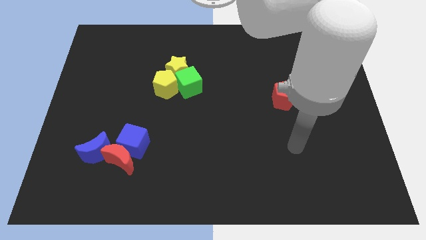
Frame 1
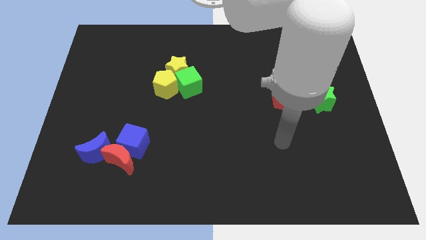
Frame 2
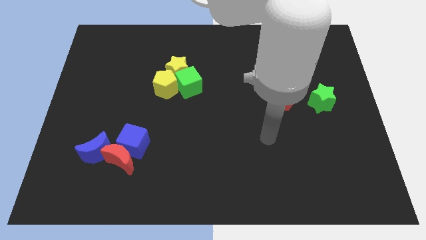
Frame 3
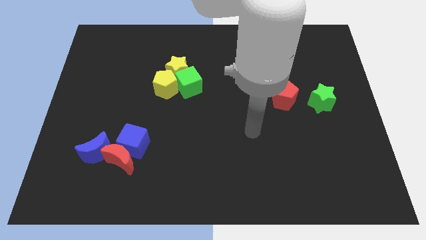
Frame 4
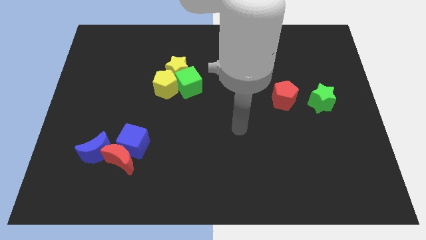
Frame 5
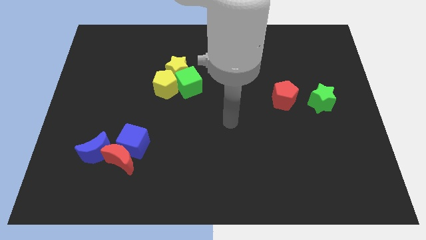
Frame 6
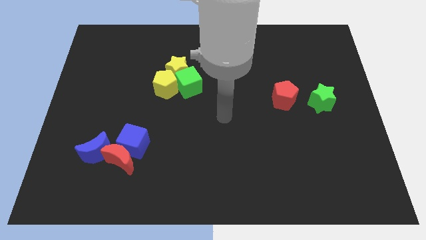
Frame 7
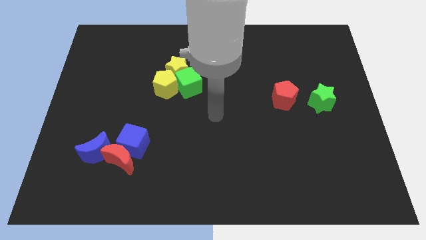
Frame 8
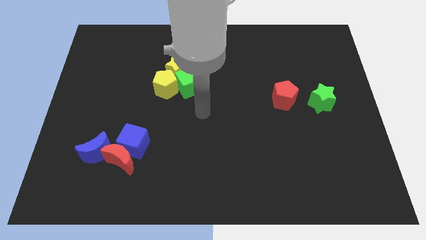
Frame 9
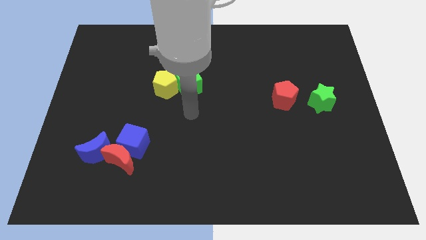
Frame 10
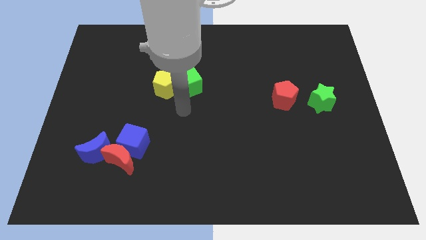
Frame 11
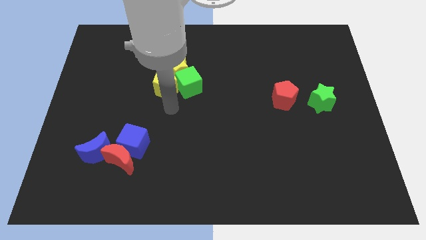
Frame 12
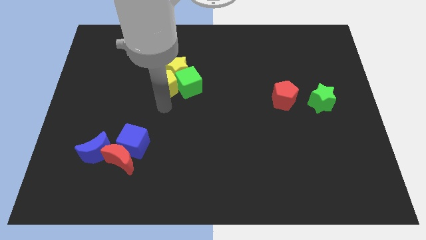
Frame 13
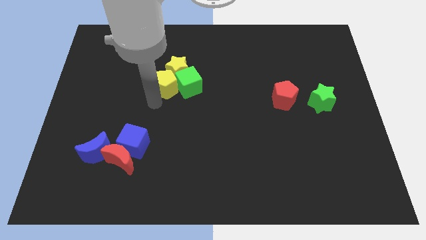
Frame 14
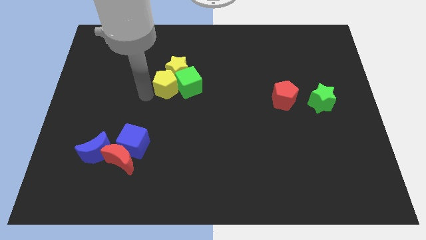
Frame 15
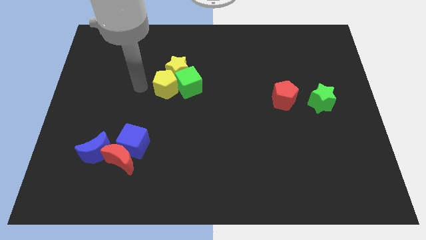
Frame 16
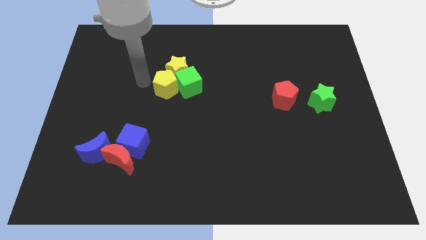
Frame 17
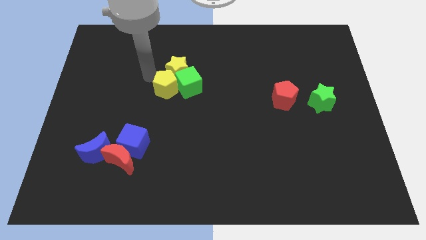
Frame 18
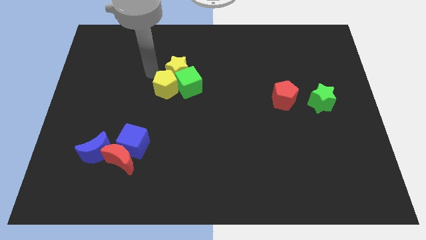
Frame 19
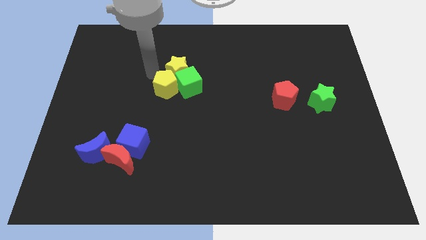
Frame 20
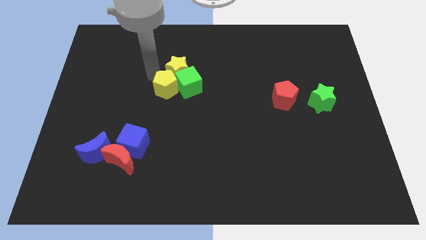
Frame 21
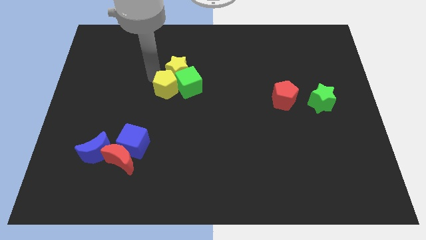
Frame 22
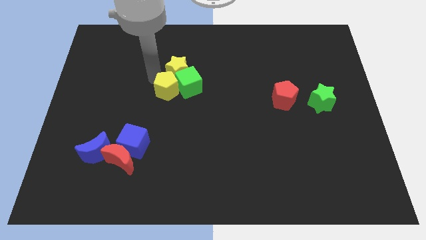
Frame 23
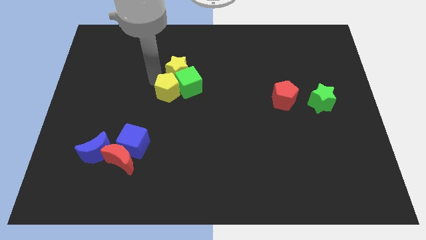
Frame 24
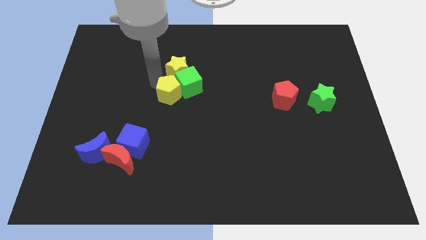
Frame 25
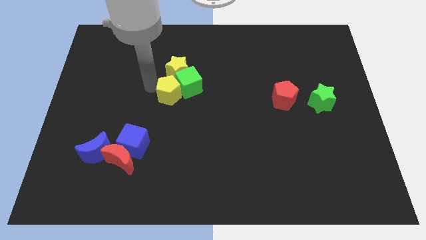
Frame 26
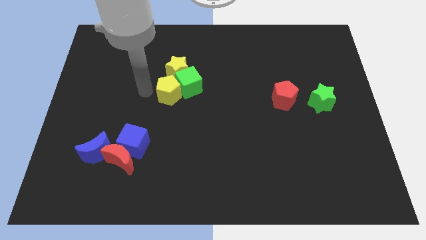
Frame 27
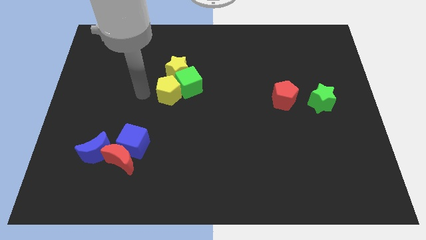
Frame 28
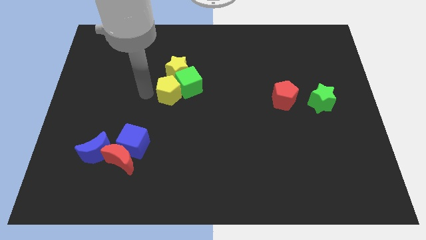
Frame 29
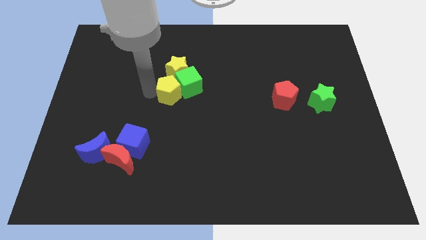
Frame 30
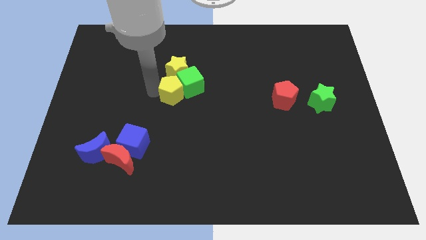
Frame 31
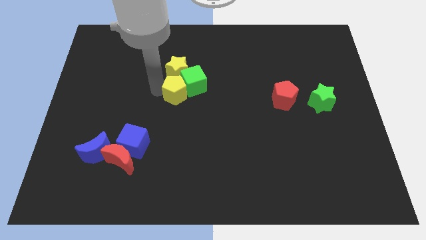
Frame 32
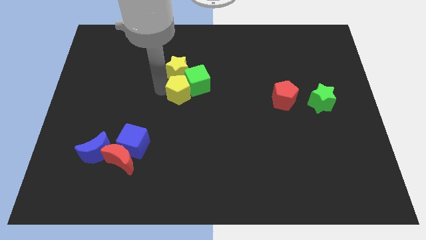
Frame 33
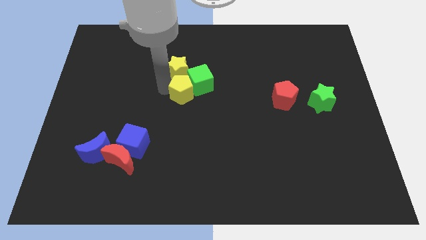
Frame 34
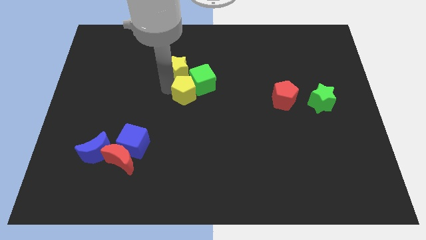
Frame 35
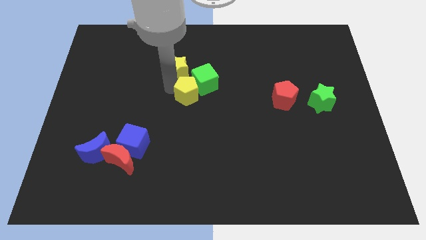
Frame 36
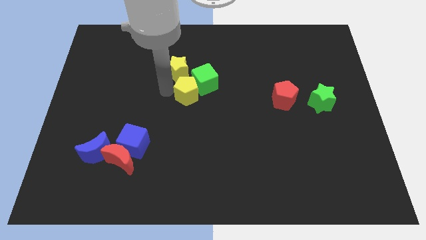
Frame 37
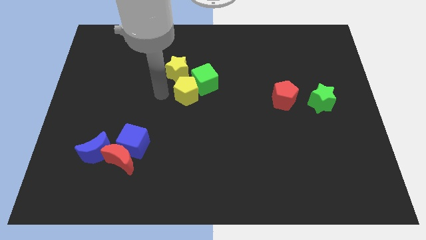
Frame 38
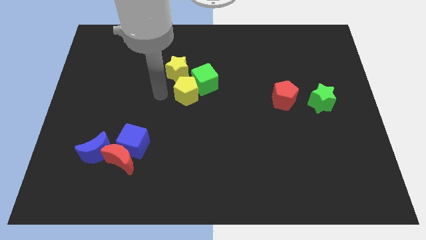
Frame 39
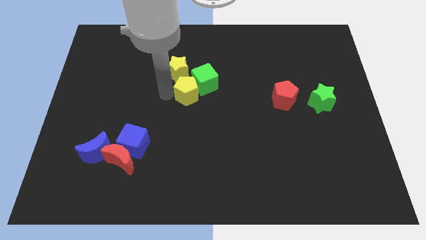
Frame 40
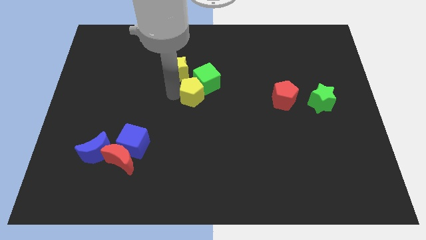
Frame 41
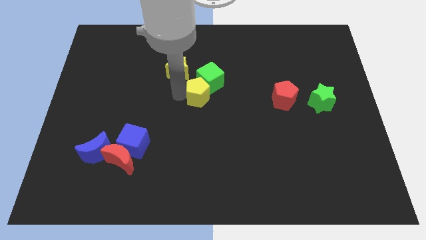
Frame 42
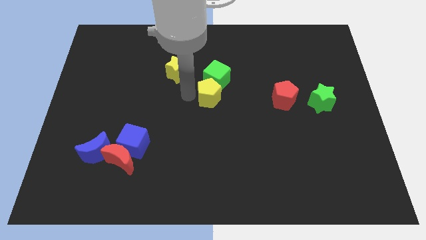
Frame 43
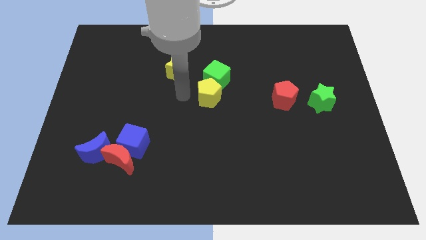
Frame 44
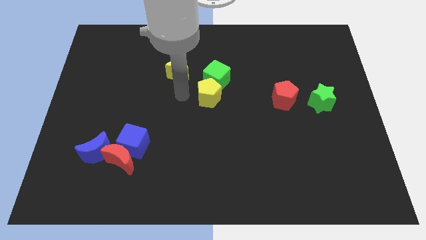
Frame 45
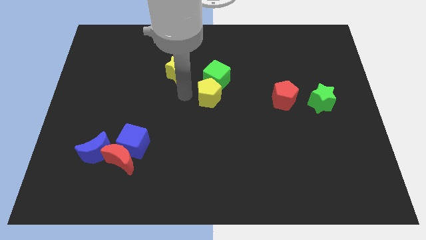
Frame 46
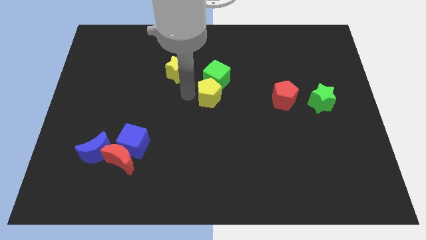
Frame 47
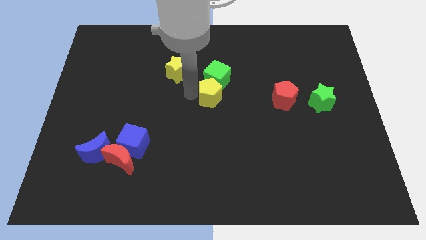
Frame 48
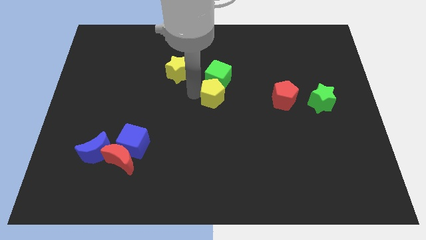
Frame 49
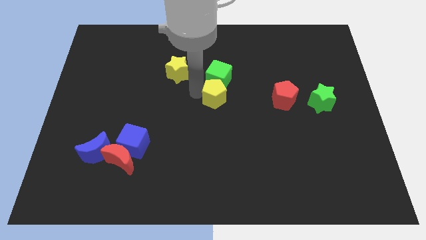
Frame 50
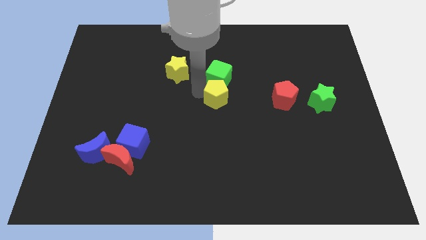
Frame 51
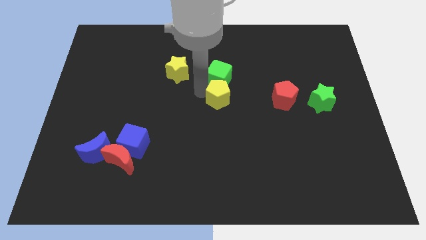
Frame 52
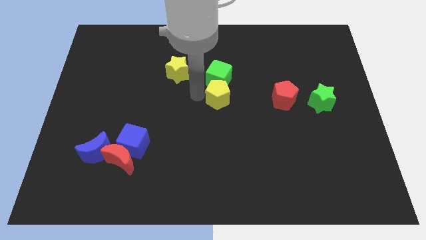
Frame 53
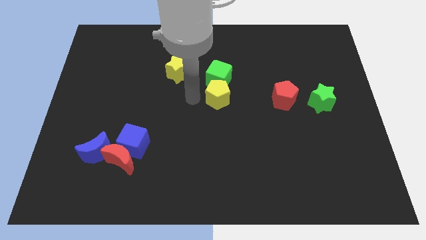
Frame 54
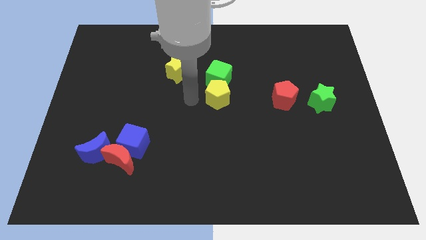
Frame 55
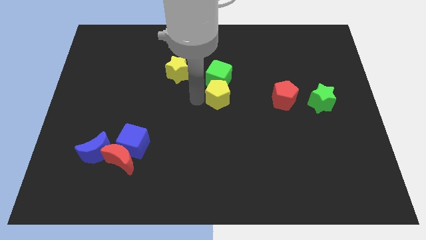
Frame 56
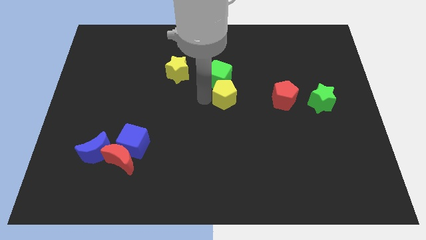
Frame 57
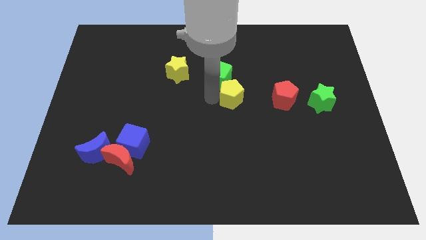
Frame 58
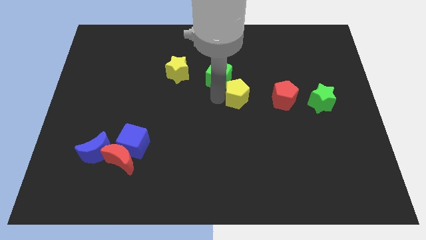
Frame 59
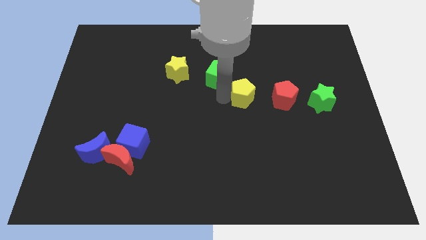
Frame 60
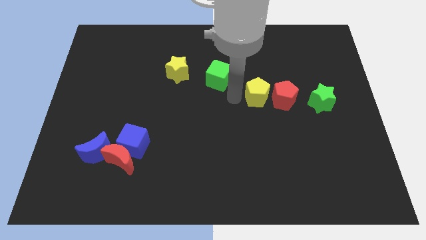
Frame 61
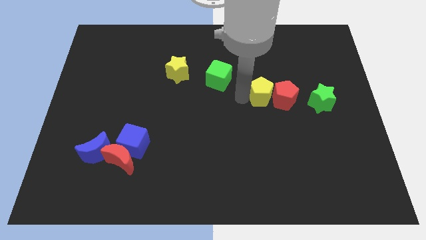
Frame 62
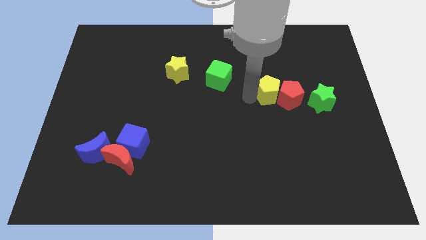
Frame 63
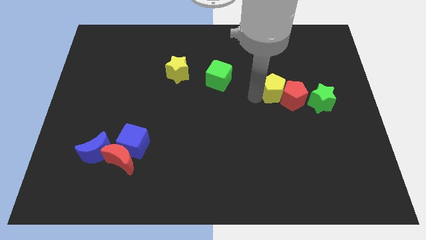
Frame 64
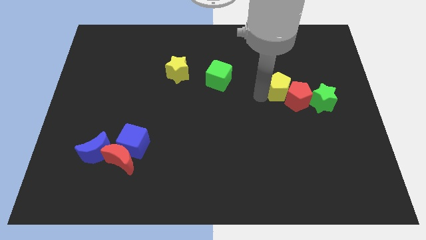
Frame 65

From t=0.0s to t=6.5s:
move the yellow pentagon to the top left side of the green star
